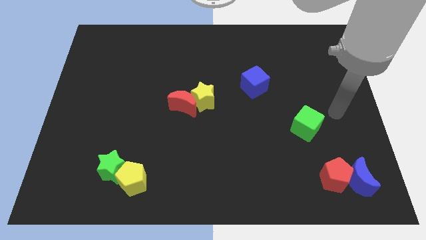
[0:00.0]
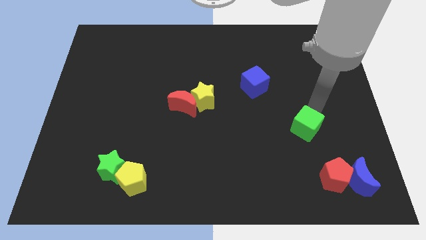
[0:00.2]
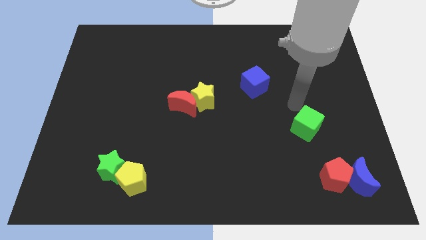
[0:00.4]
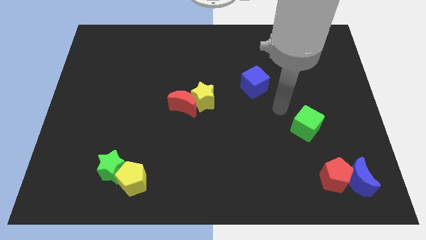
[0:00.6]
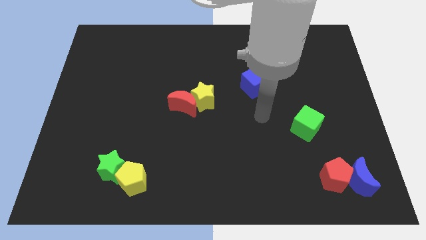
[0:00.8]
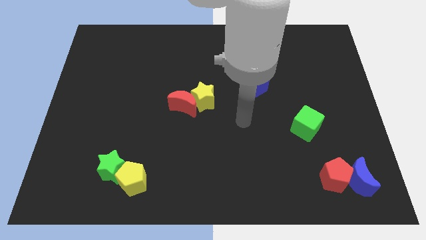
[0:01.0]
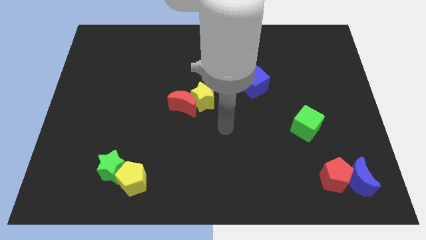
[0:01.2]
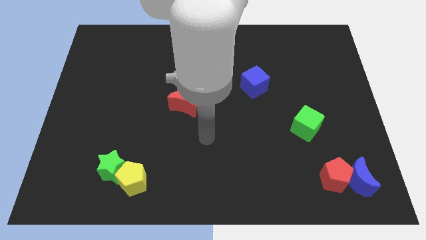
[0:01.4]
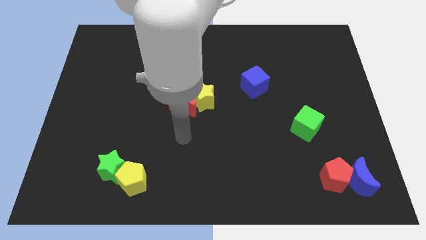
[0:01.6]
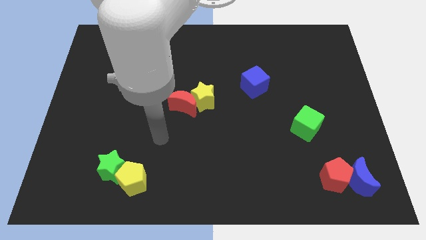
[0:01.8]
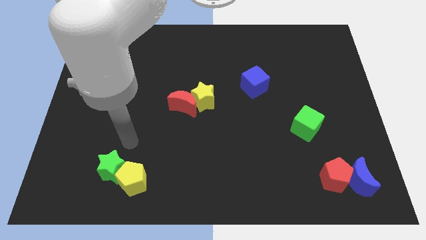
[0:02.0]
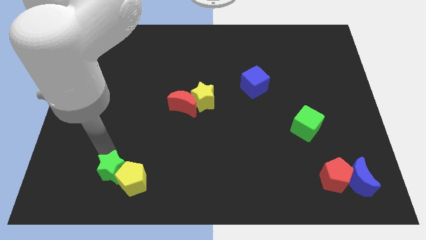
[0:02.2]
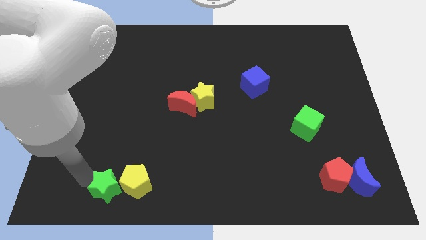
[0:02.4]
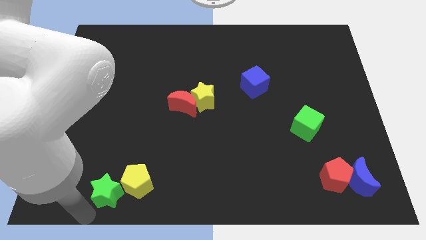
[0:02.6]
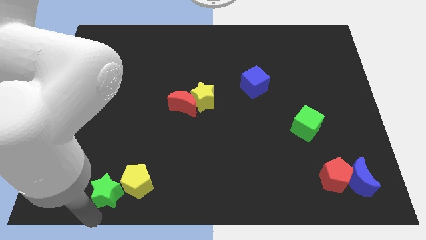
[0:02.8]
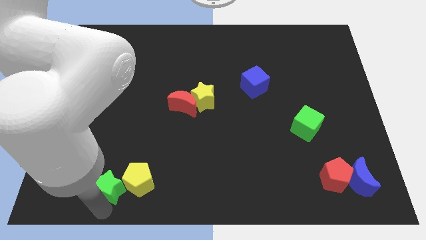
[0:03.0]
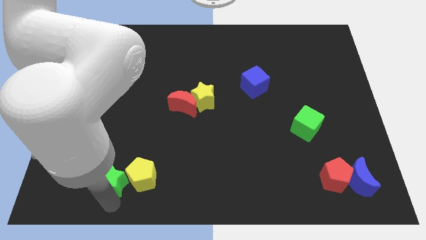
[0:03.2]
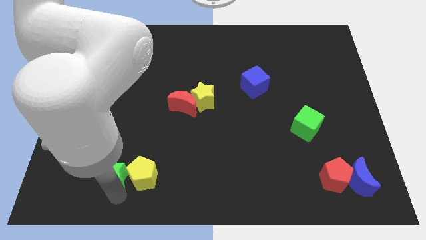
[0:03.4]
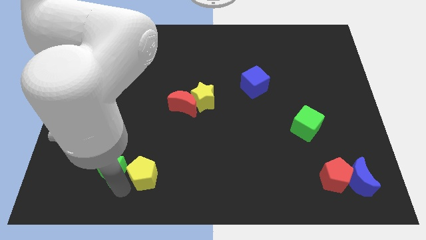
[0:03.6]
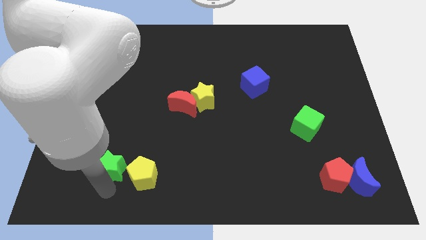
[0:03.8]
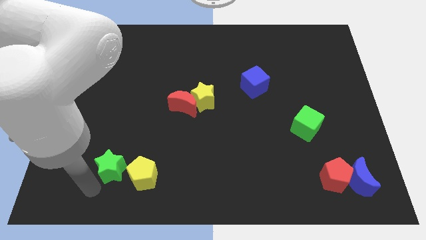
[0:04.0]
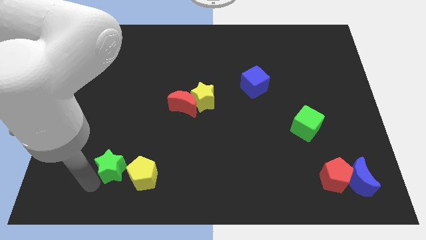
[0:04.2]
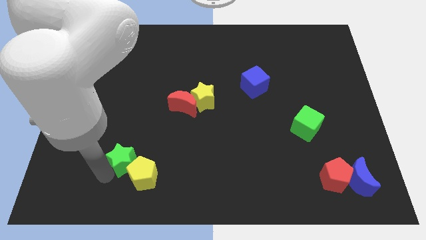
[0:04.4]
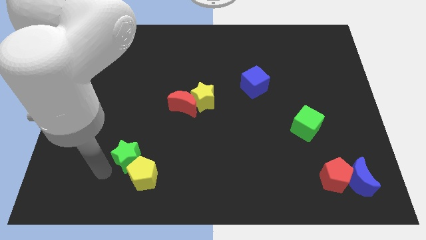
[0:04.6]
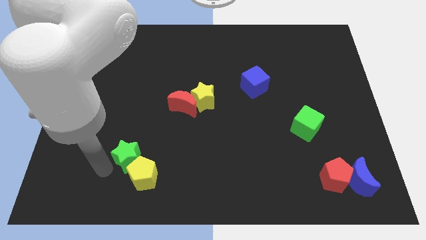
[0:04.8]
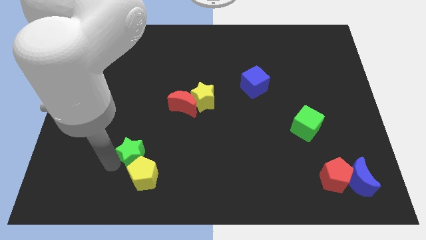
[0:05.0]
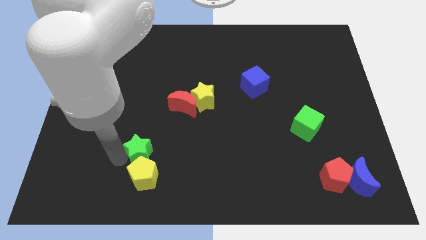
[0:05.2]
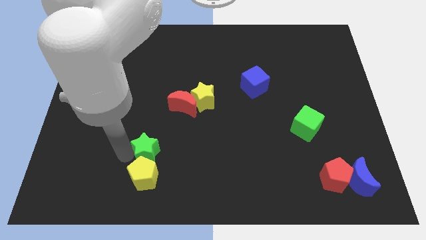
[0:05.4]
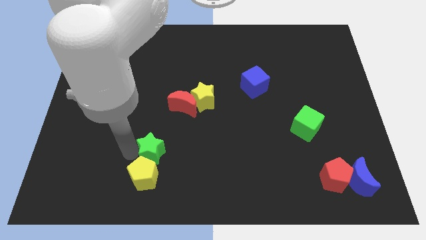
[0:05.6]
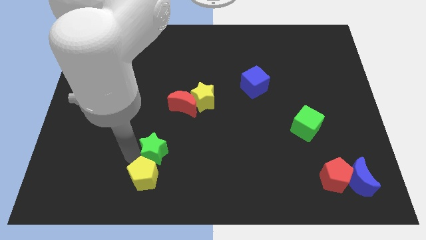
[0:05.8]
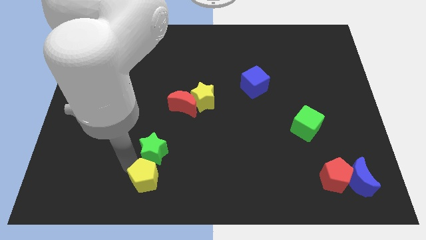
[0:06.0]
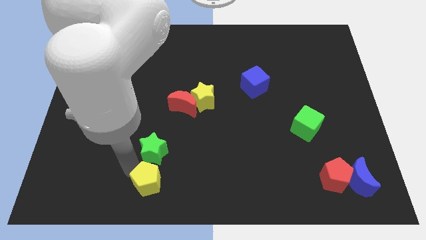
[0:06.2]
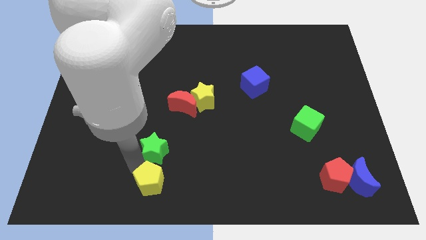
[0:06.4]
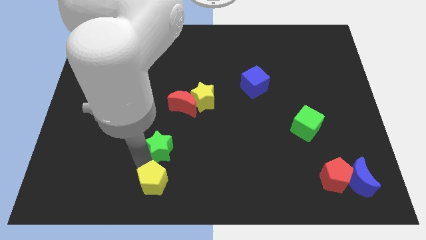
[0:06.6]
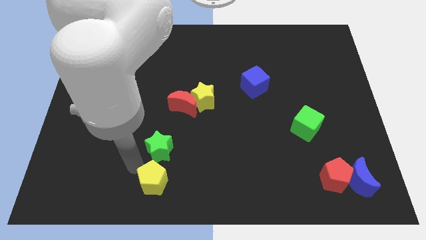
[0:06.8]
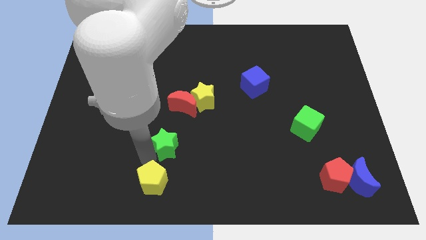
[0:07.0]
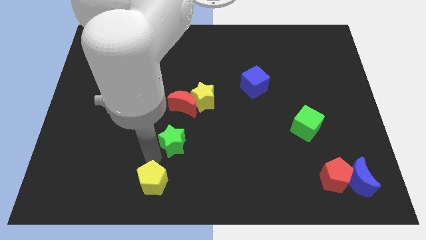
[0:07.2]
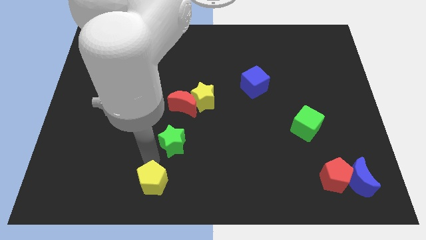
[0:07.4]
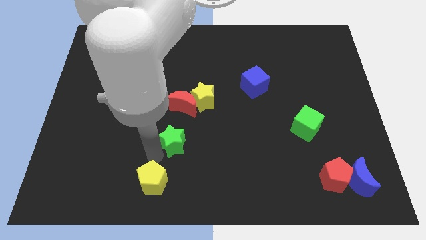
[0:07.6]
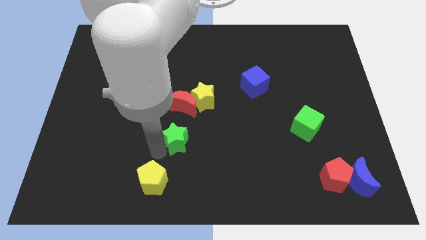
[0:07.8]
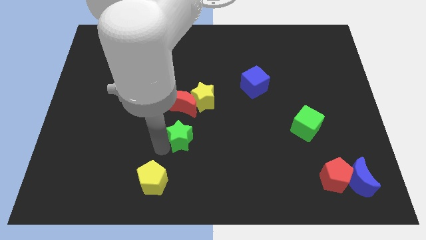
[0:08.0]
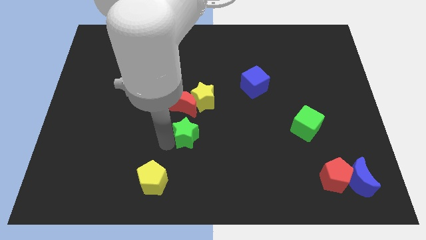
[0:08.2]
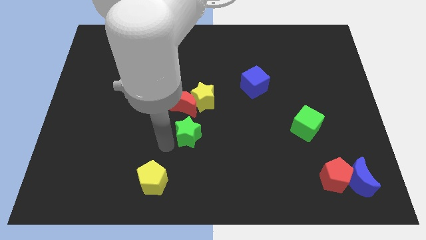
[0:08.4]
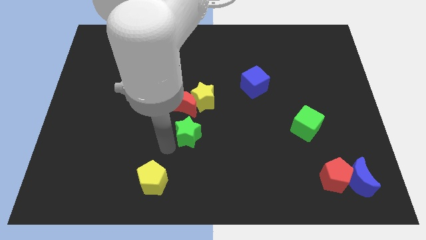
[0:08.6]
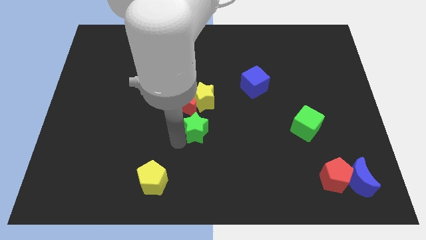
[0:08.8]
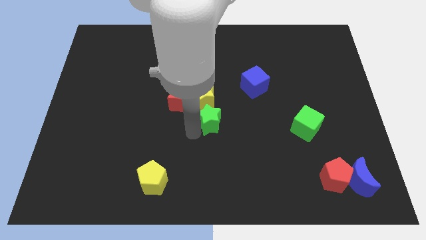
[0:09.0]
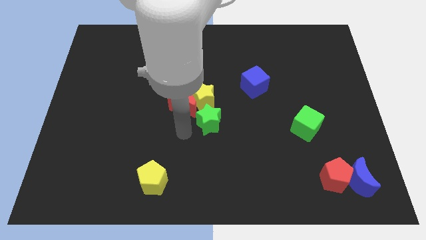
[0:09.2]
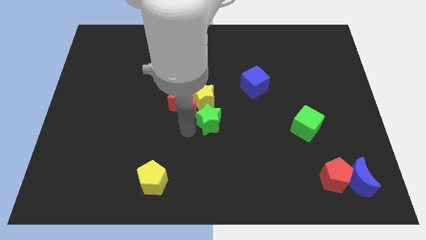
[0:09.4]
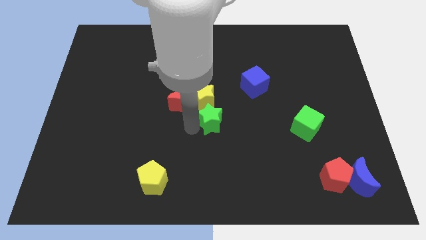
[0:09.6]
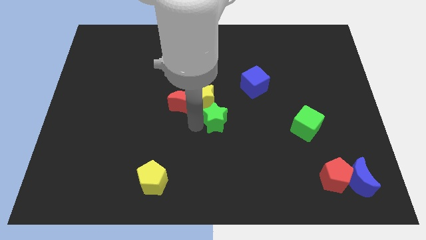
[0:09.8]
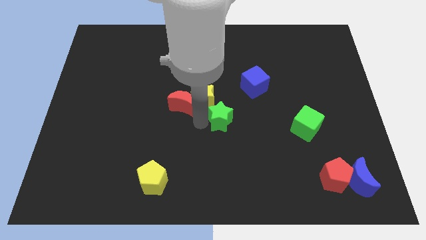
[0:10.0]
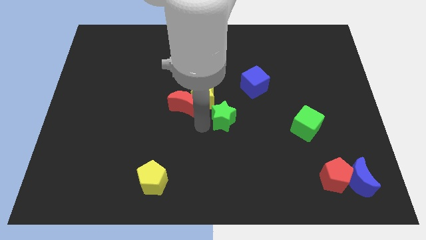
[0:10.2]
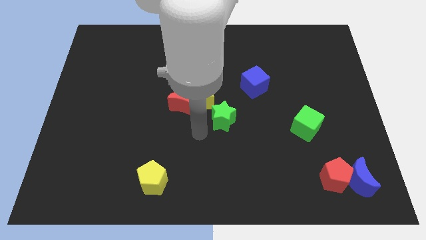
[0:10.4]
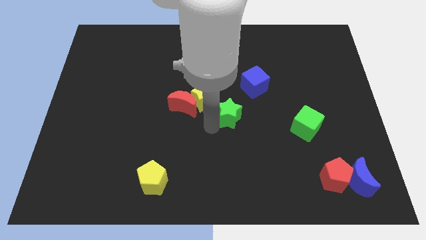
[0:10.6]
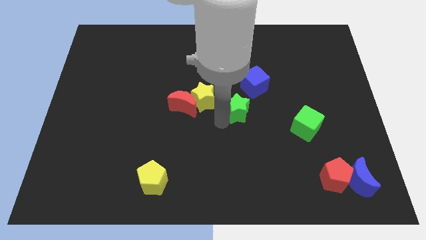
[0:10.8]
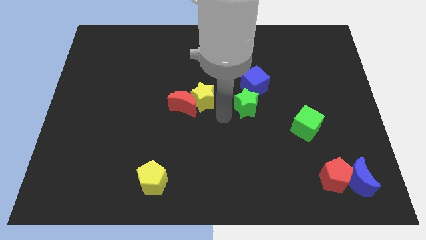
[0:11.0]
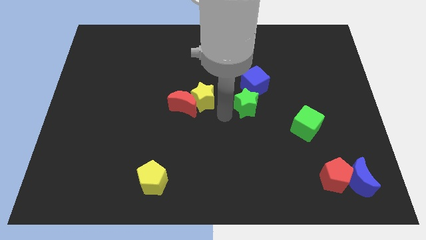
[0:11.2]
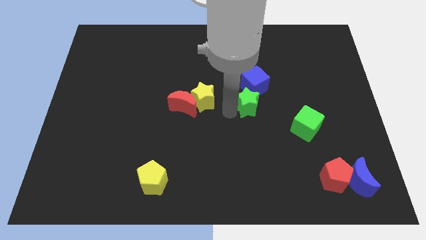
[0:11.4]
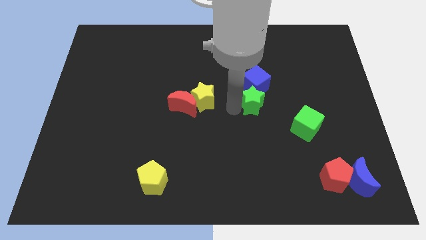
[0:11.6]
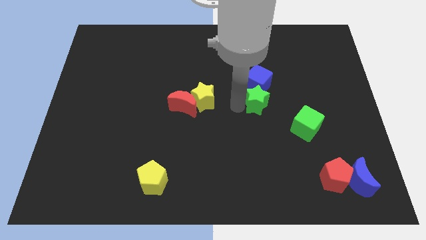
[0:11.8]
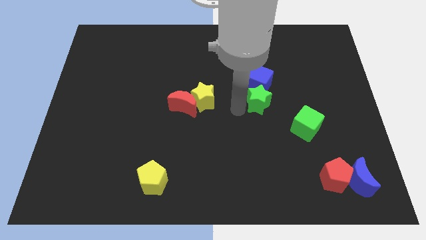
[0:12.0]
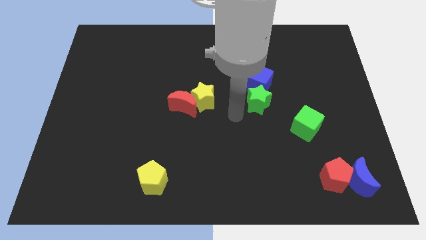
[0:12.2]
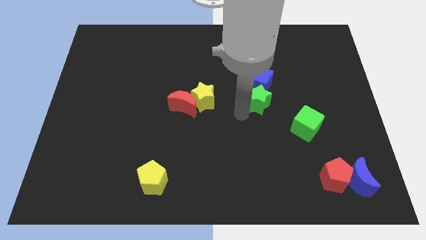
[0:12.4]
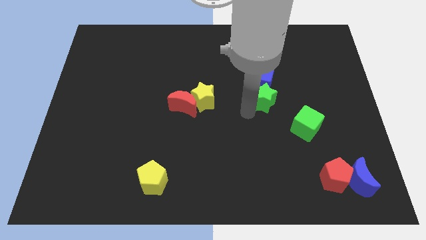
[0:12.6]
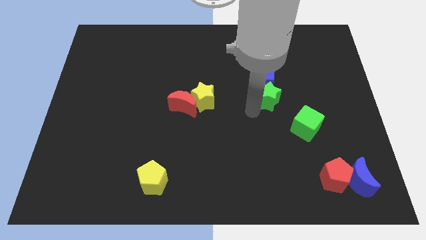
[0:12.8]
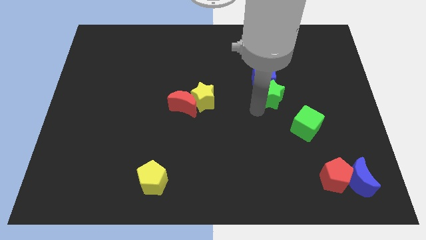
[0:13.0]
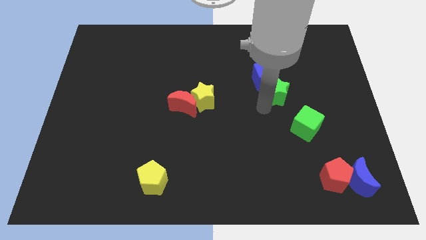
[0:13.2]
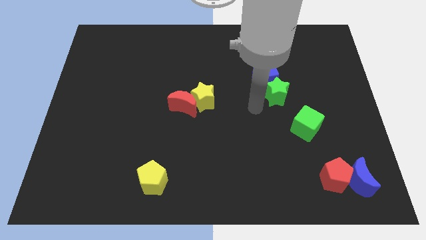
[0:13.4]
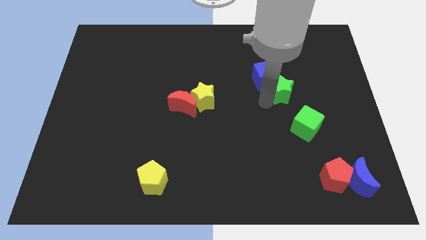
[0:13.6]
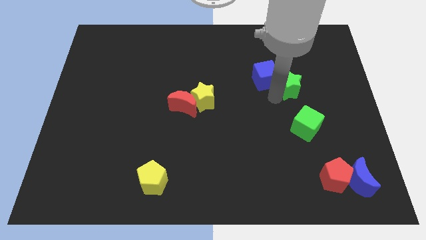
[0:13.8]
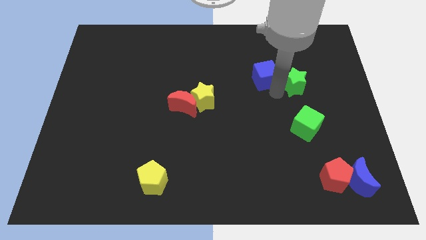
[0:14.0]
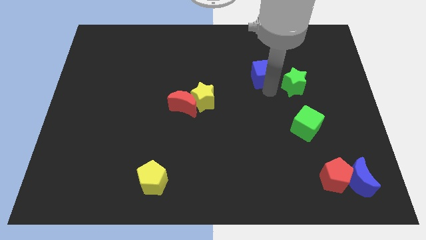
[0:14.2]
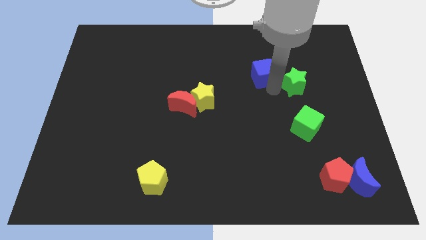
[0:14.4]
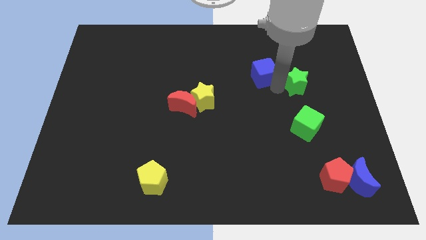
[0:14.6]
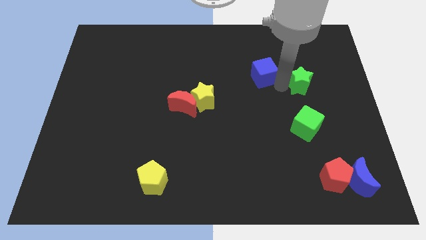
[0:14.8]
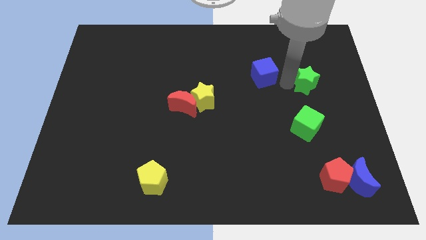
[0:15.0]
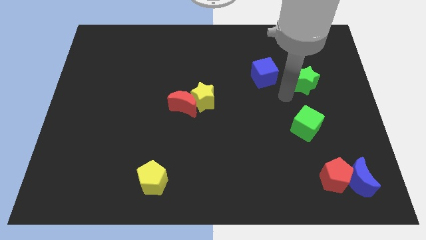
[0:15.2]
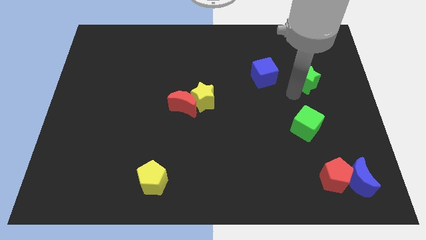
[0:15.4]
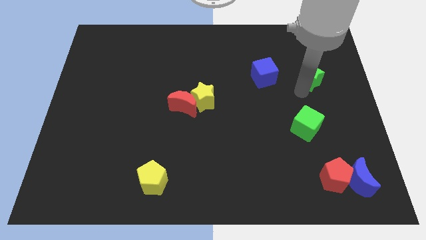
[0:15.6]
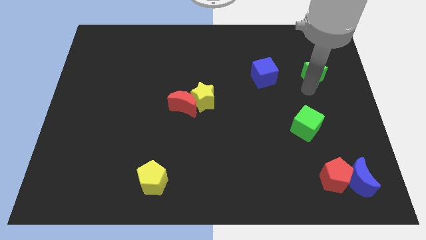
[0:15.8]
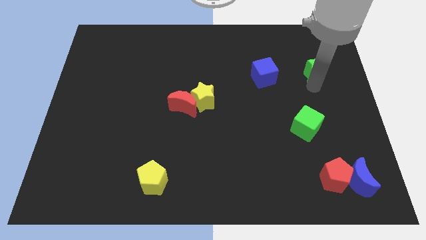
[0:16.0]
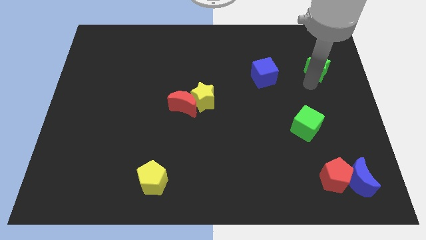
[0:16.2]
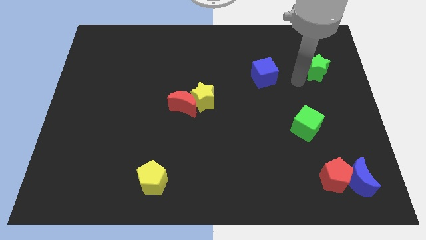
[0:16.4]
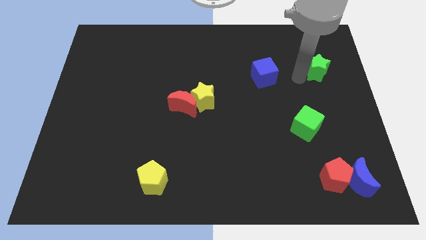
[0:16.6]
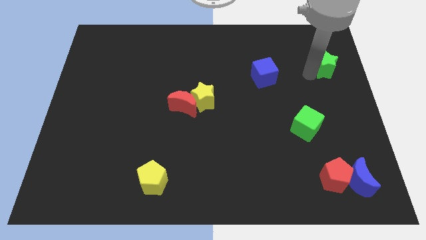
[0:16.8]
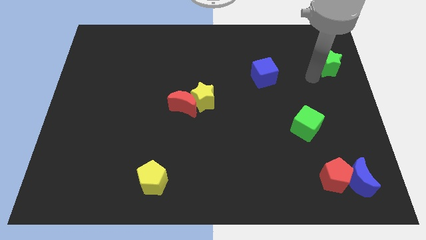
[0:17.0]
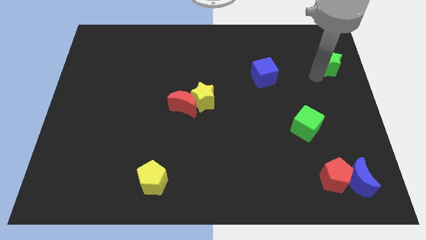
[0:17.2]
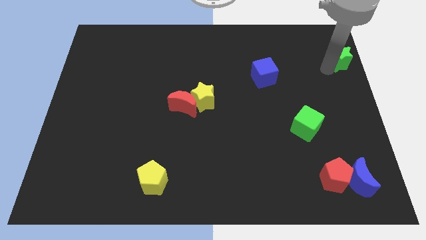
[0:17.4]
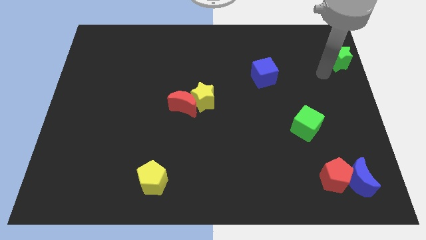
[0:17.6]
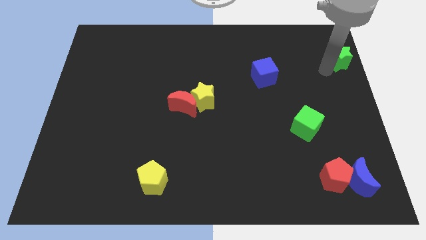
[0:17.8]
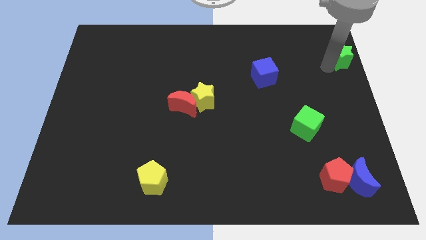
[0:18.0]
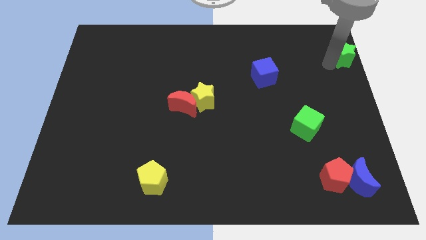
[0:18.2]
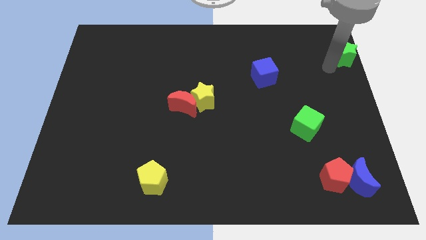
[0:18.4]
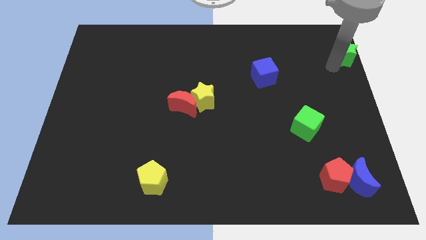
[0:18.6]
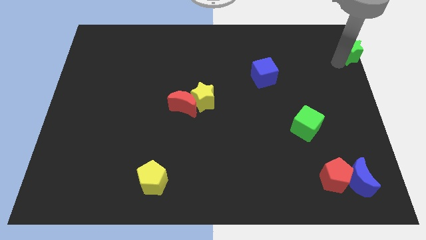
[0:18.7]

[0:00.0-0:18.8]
push the green star to the top right corner
